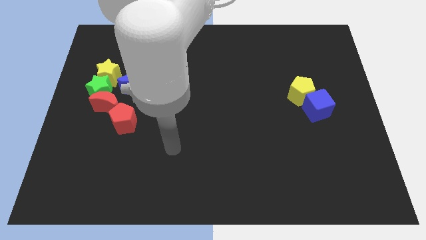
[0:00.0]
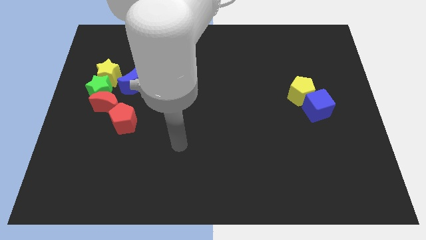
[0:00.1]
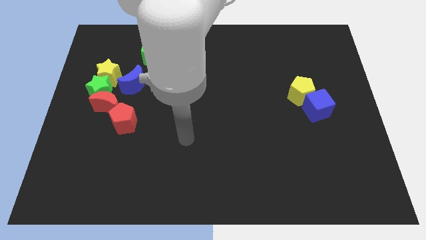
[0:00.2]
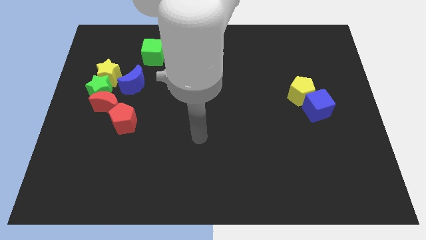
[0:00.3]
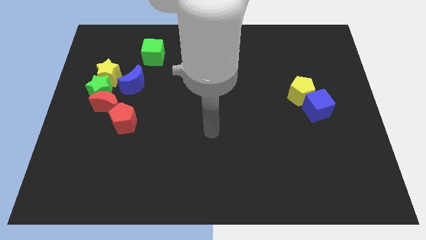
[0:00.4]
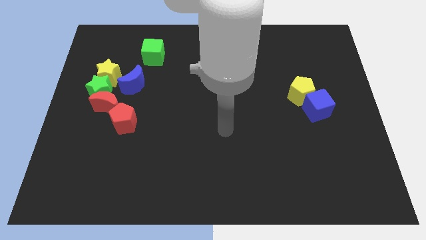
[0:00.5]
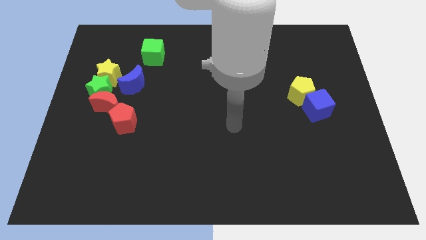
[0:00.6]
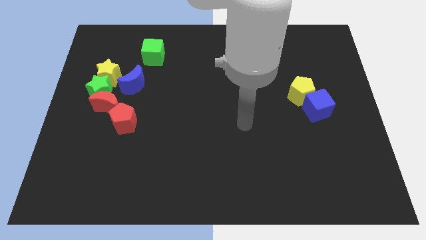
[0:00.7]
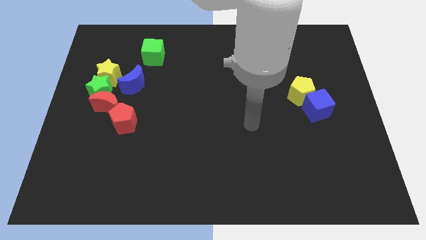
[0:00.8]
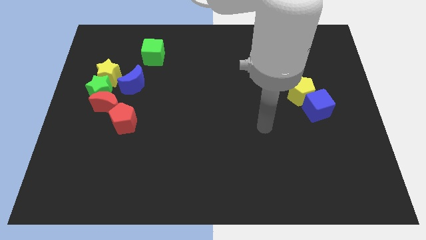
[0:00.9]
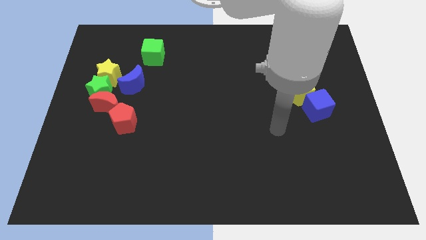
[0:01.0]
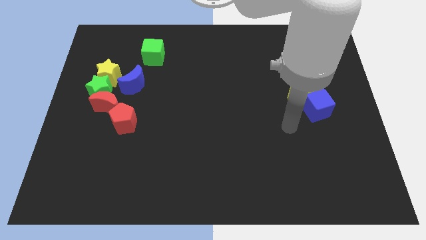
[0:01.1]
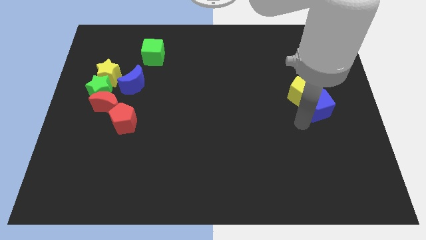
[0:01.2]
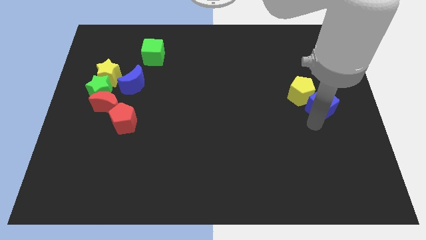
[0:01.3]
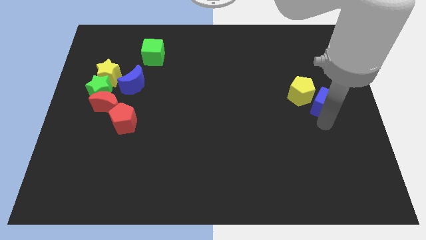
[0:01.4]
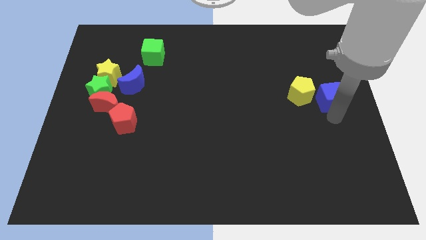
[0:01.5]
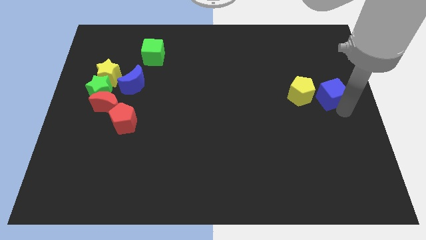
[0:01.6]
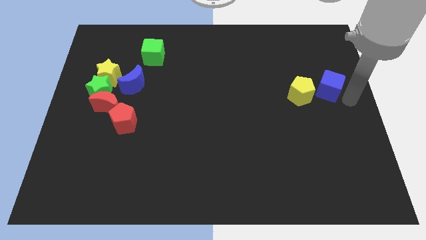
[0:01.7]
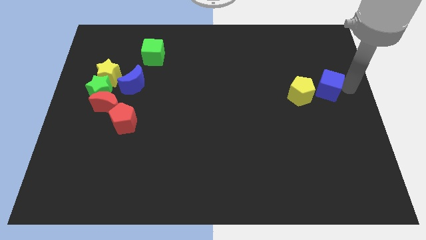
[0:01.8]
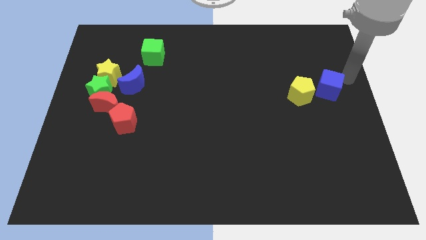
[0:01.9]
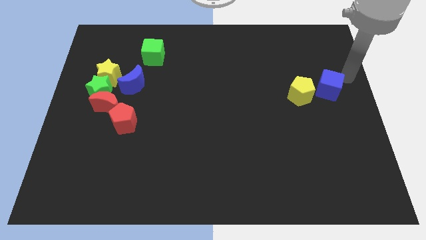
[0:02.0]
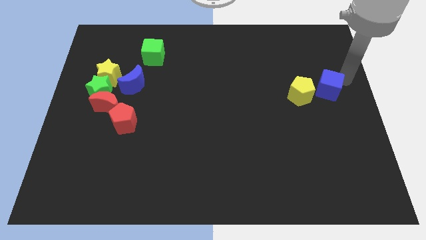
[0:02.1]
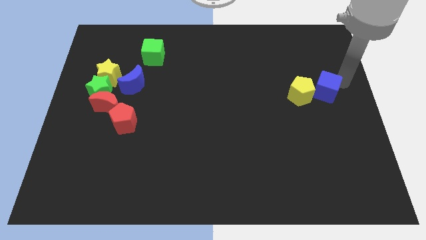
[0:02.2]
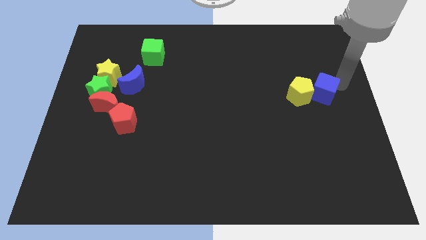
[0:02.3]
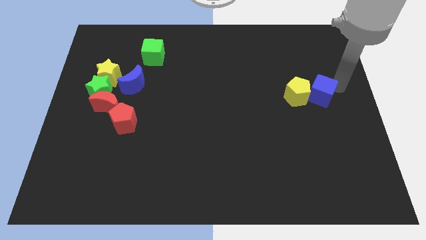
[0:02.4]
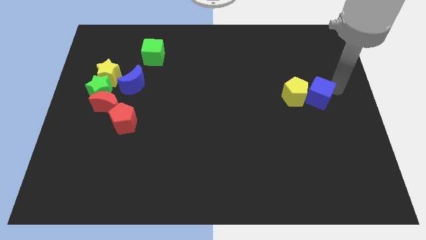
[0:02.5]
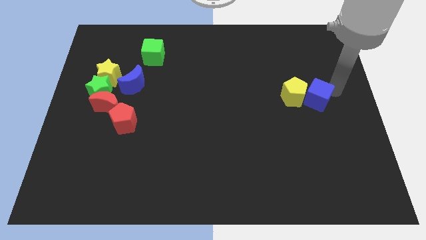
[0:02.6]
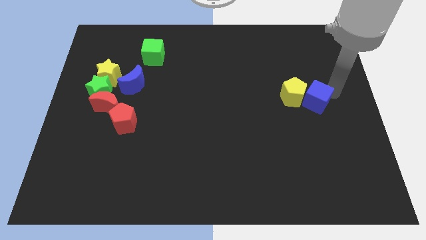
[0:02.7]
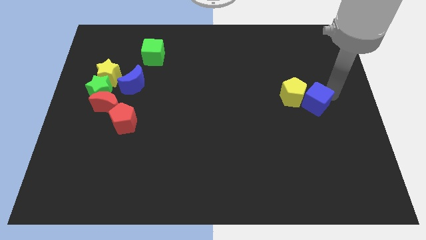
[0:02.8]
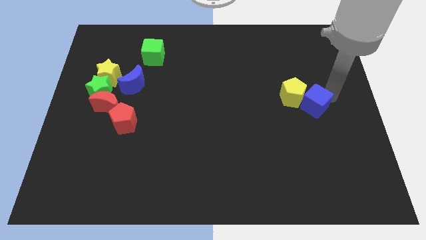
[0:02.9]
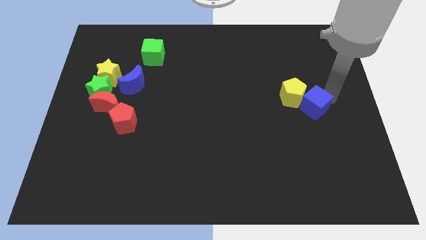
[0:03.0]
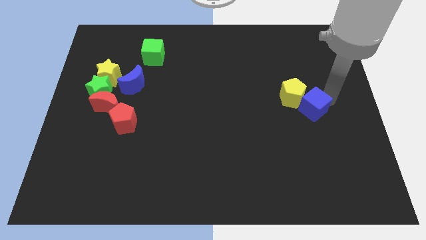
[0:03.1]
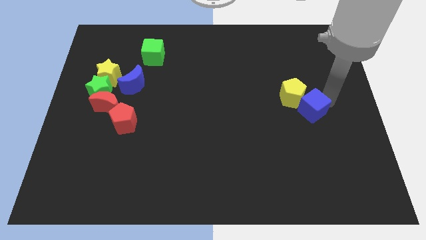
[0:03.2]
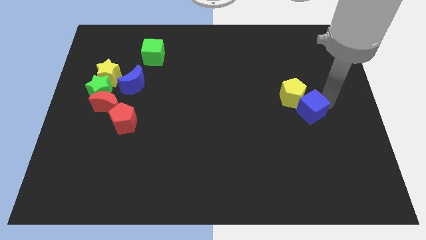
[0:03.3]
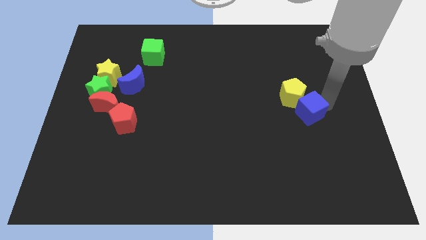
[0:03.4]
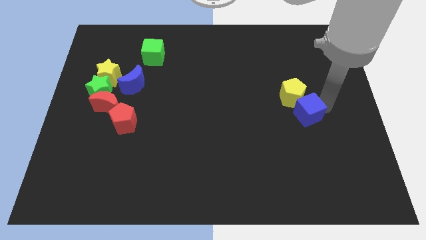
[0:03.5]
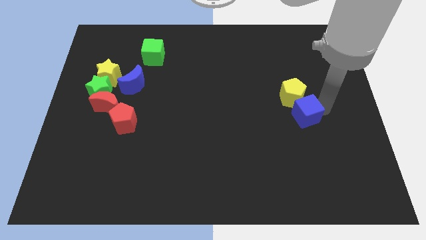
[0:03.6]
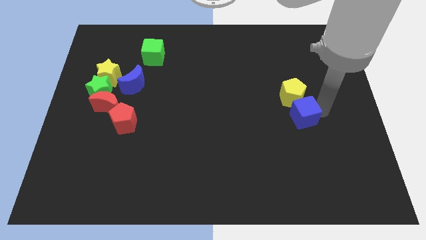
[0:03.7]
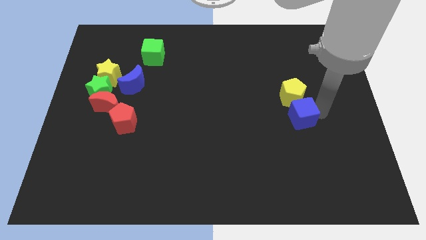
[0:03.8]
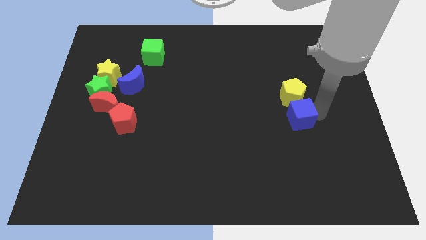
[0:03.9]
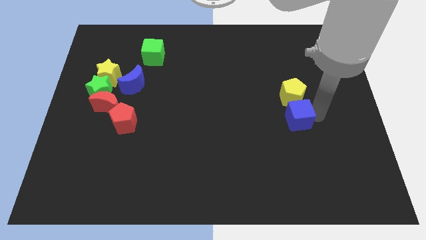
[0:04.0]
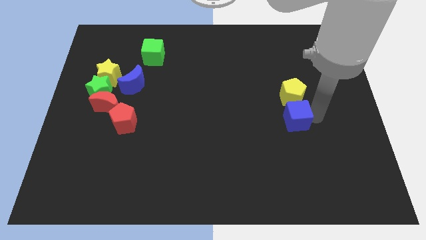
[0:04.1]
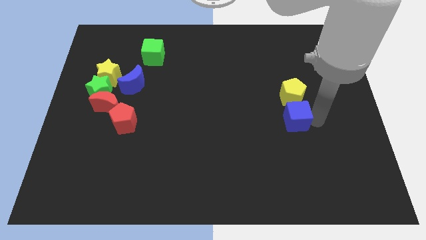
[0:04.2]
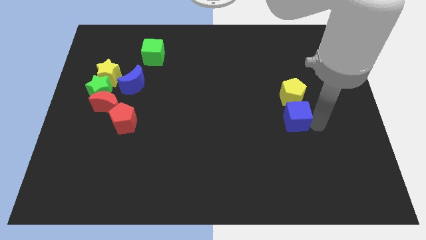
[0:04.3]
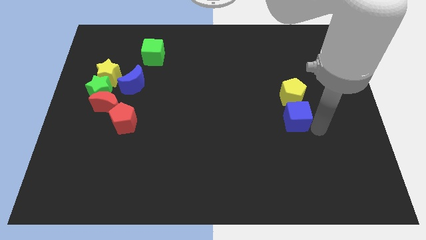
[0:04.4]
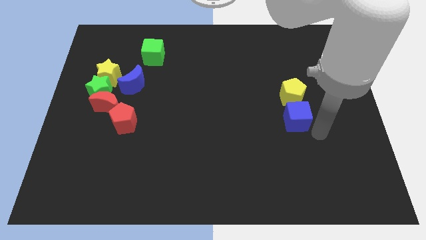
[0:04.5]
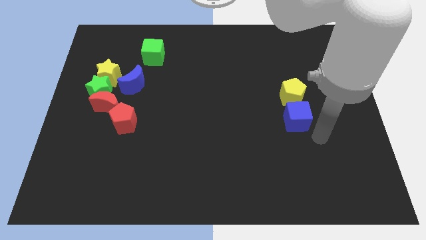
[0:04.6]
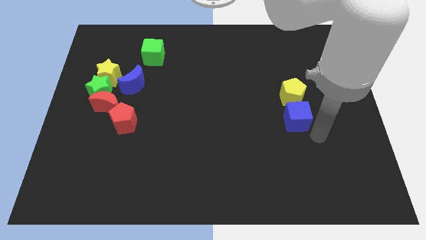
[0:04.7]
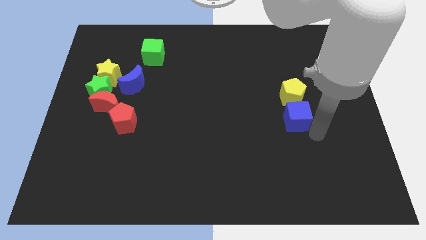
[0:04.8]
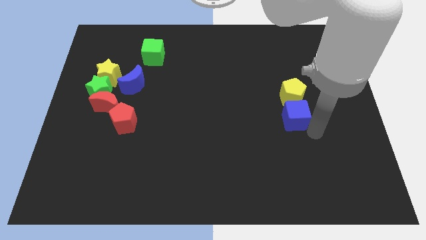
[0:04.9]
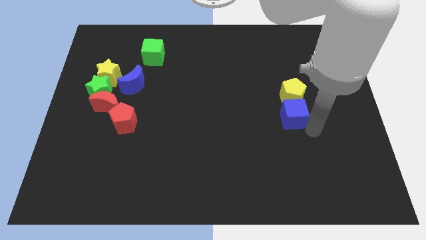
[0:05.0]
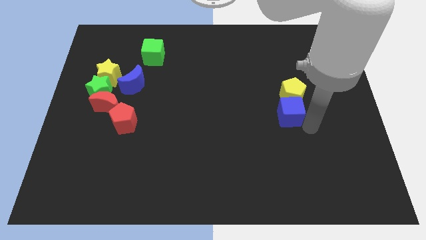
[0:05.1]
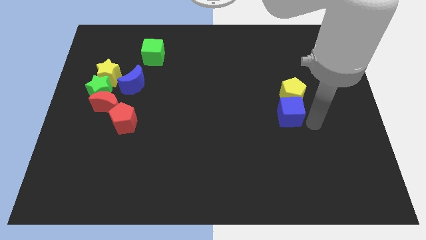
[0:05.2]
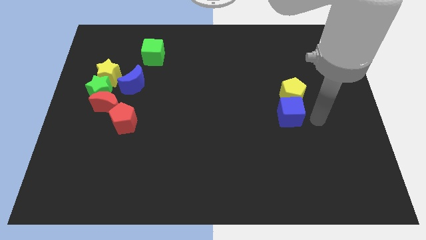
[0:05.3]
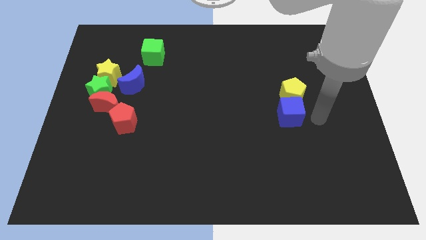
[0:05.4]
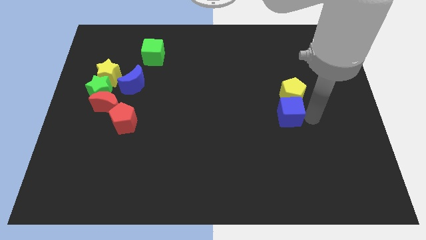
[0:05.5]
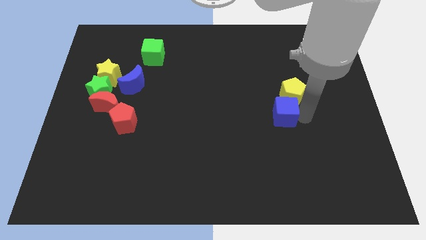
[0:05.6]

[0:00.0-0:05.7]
slide the blue cube to the left a little bit

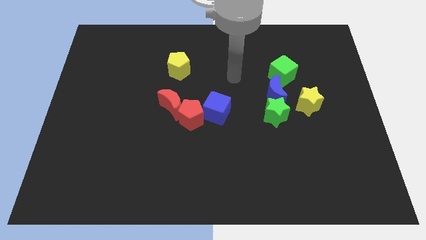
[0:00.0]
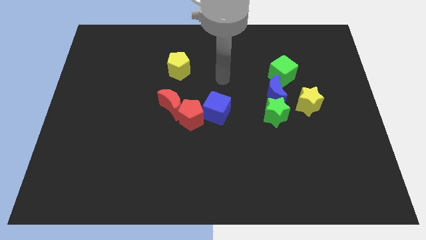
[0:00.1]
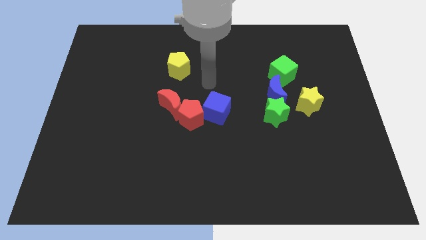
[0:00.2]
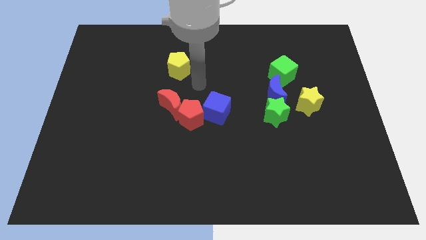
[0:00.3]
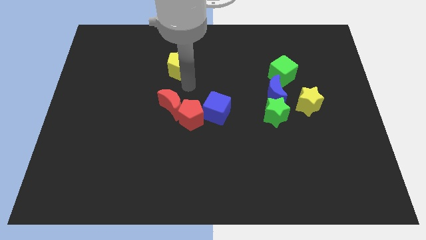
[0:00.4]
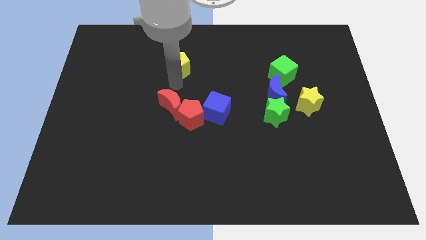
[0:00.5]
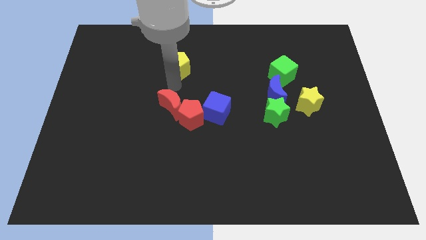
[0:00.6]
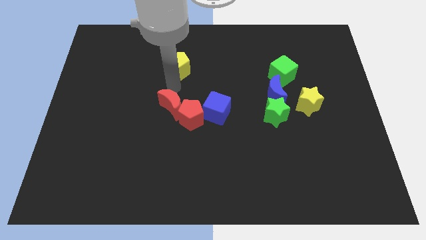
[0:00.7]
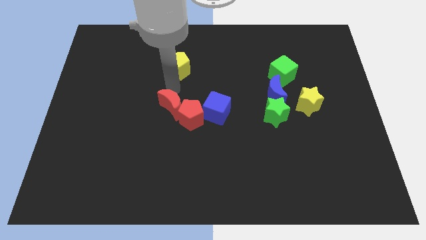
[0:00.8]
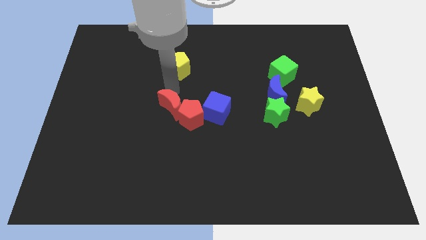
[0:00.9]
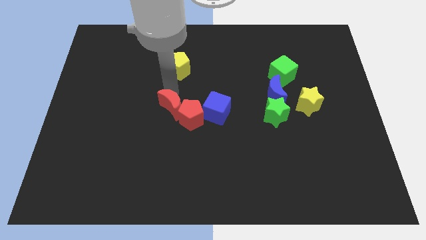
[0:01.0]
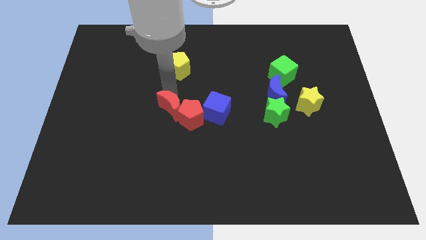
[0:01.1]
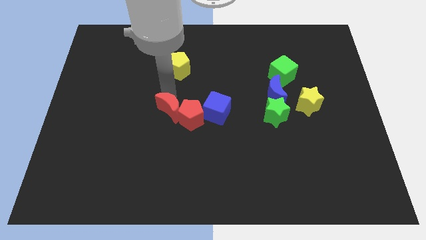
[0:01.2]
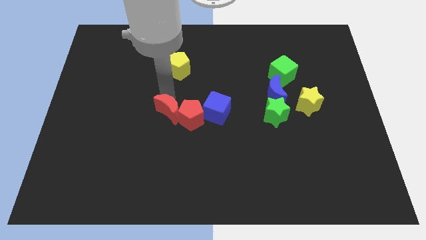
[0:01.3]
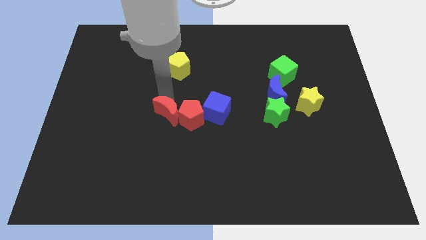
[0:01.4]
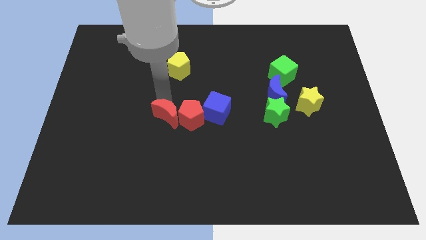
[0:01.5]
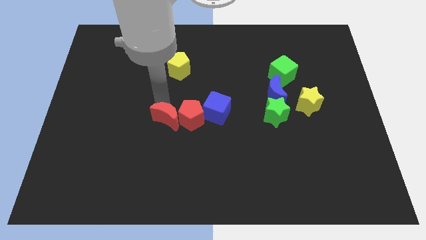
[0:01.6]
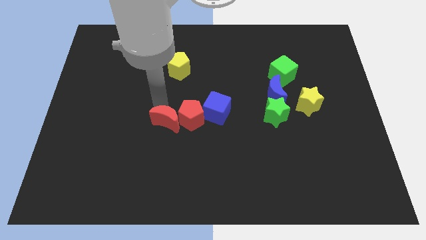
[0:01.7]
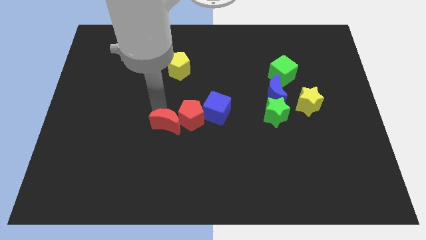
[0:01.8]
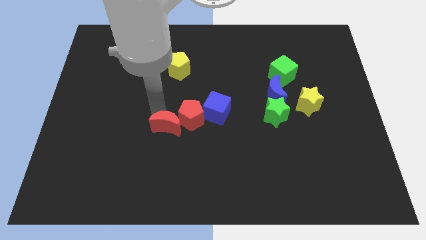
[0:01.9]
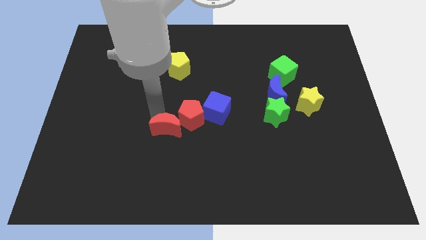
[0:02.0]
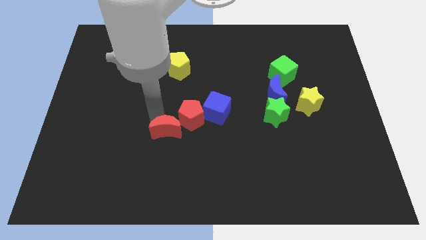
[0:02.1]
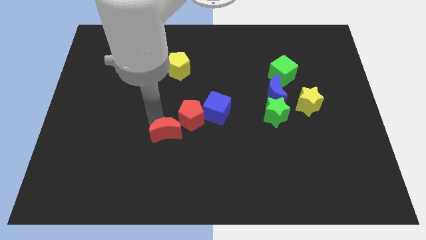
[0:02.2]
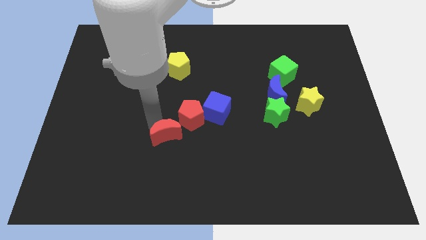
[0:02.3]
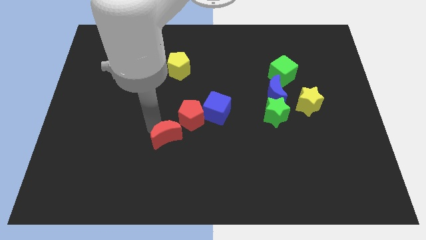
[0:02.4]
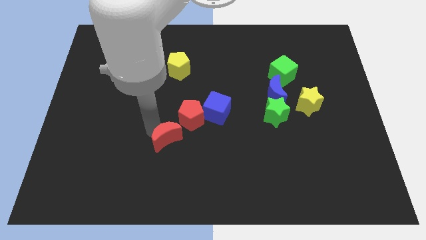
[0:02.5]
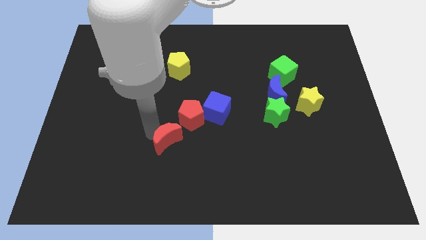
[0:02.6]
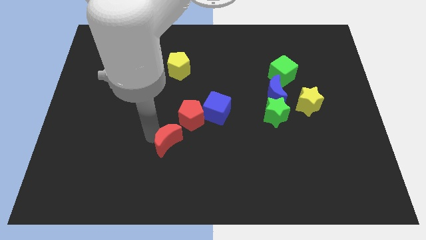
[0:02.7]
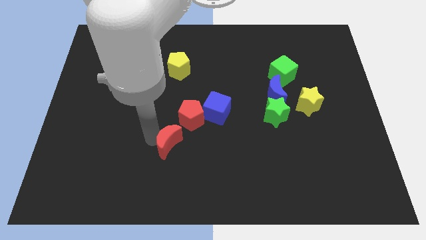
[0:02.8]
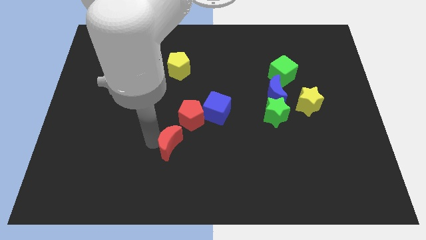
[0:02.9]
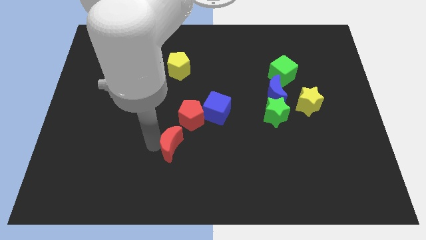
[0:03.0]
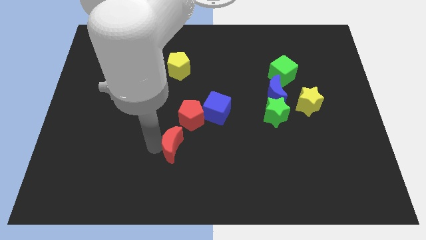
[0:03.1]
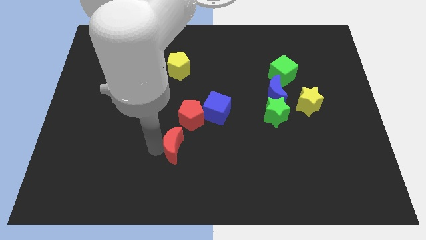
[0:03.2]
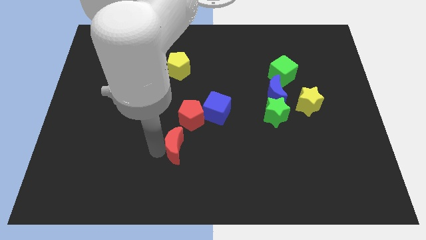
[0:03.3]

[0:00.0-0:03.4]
slightly move the red moon down and to the right diagonally
